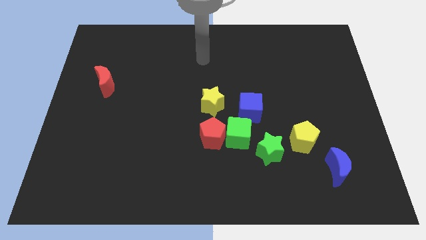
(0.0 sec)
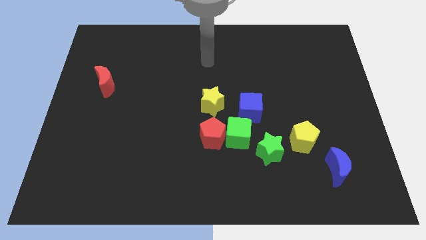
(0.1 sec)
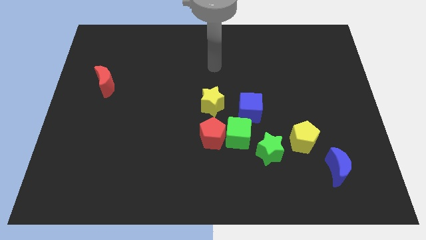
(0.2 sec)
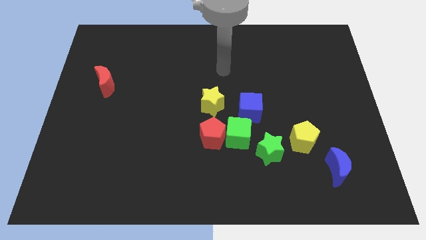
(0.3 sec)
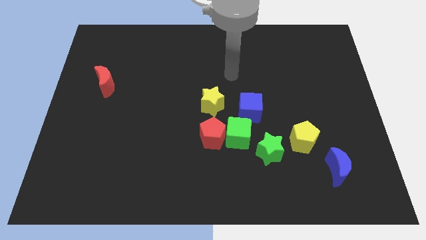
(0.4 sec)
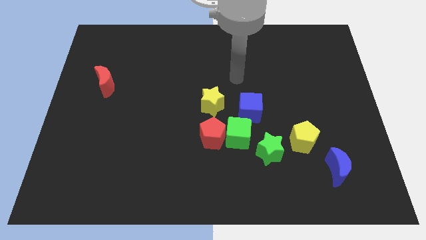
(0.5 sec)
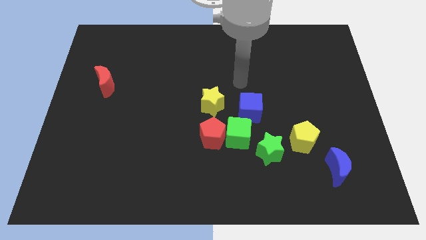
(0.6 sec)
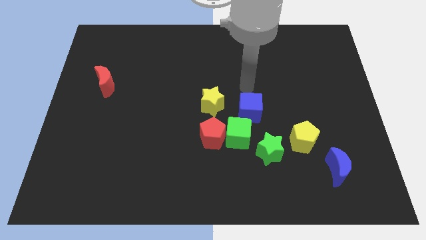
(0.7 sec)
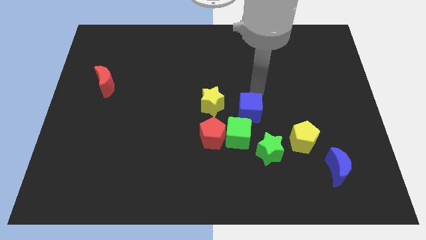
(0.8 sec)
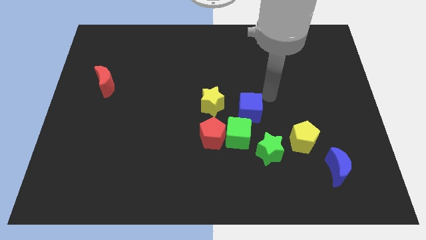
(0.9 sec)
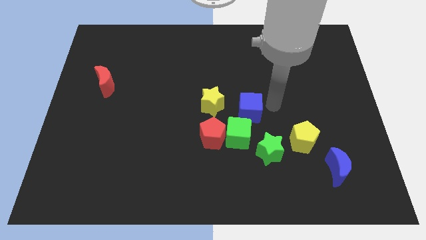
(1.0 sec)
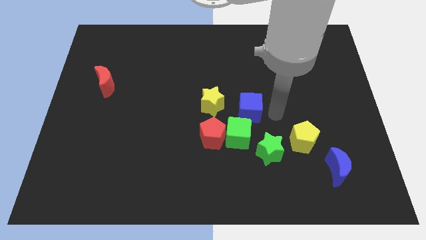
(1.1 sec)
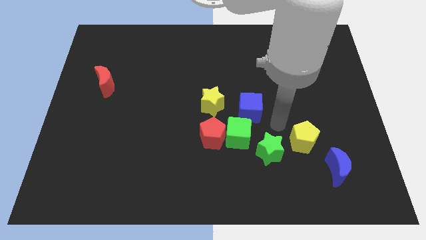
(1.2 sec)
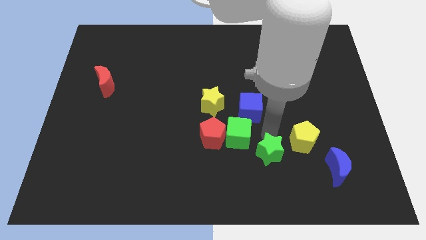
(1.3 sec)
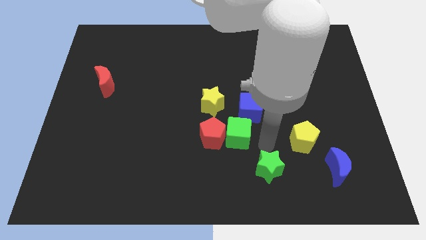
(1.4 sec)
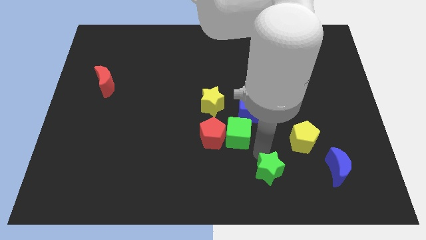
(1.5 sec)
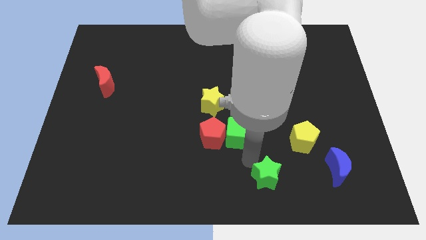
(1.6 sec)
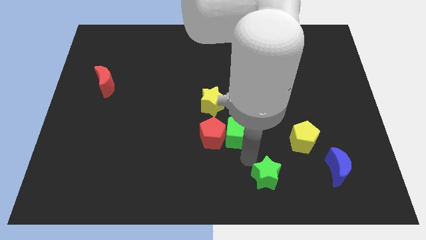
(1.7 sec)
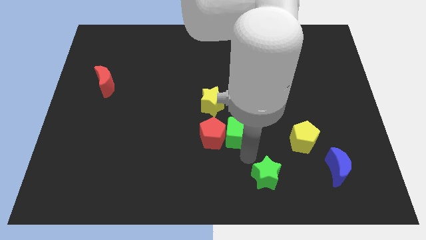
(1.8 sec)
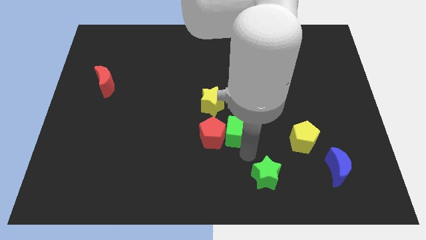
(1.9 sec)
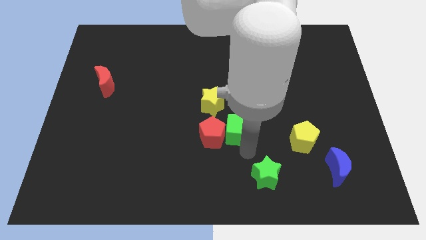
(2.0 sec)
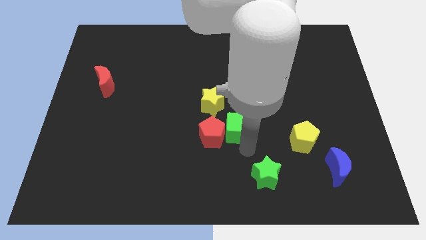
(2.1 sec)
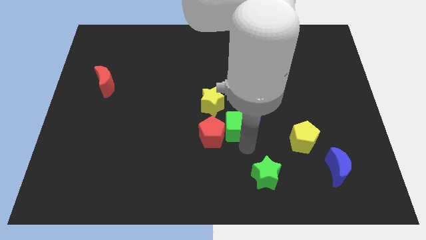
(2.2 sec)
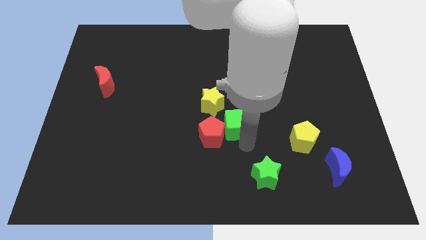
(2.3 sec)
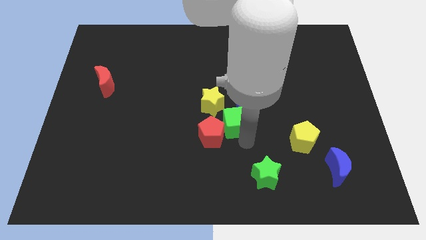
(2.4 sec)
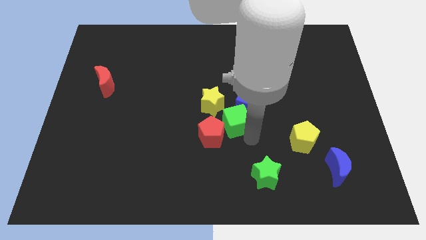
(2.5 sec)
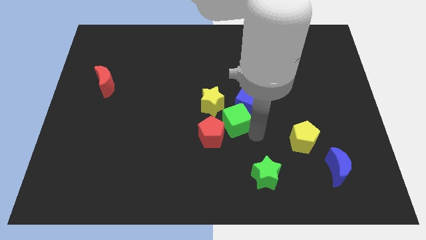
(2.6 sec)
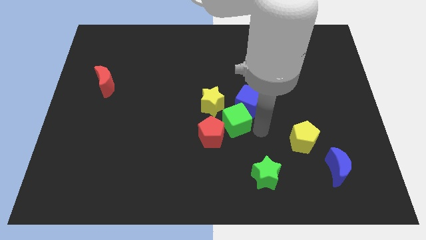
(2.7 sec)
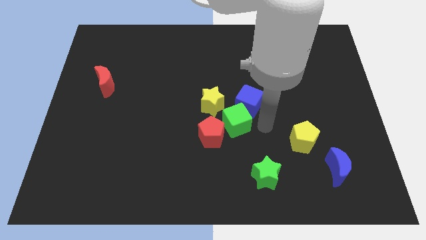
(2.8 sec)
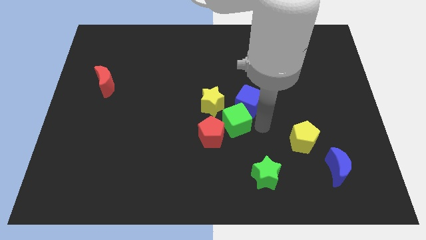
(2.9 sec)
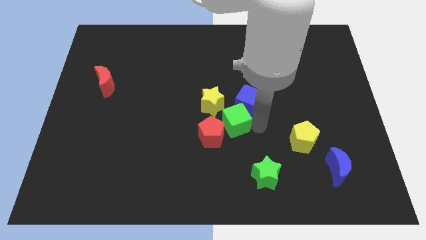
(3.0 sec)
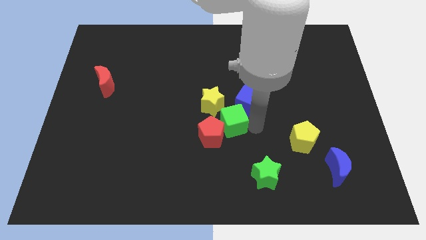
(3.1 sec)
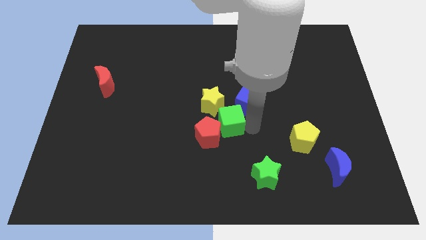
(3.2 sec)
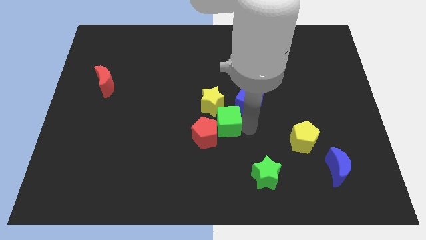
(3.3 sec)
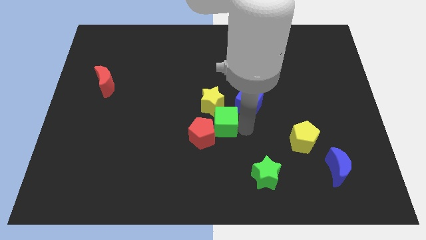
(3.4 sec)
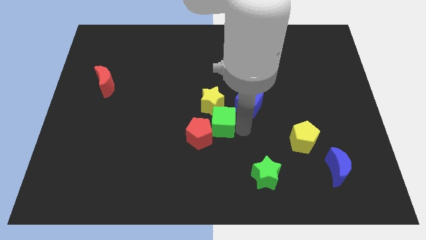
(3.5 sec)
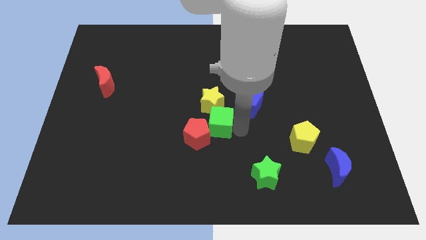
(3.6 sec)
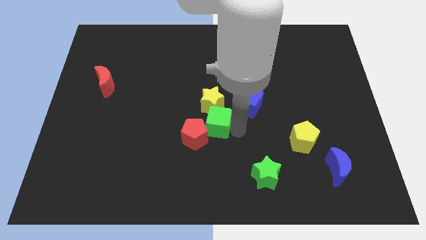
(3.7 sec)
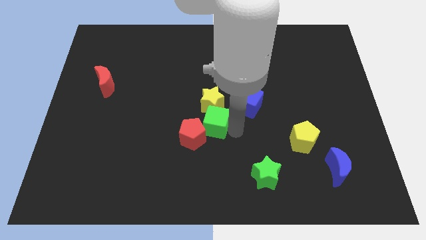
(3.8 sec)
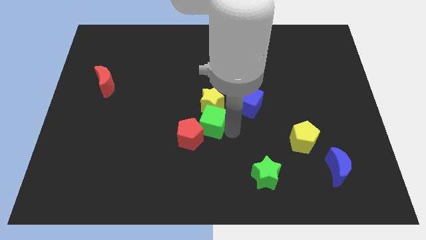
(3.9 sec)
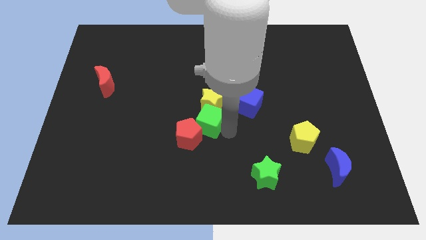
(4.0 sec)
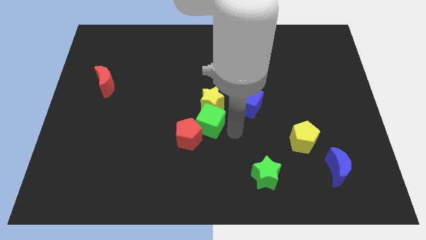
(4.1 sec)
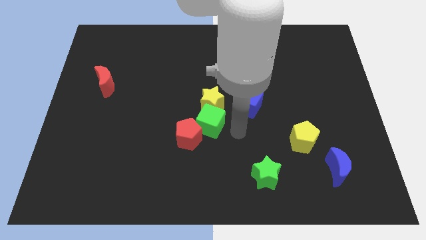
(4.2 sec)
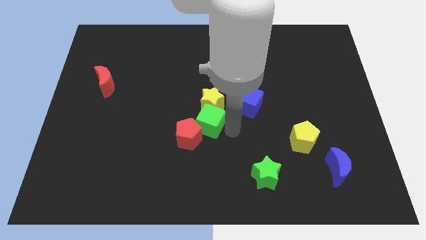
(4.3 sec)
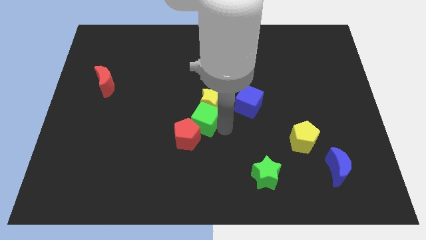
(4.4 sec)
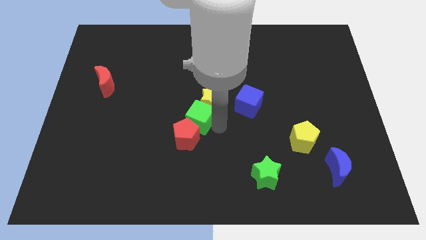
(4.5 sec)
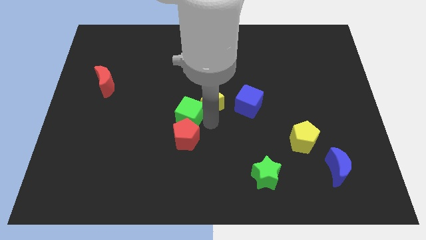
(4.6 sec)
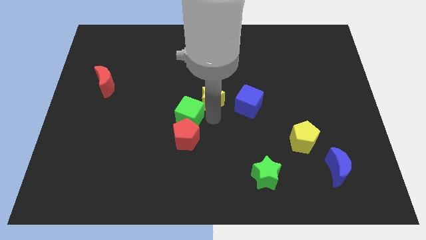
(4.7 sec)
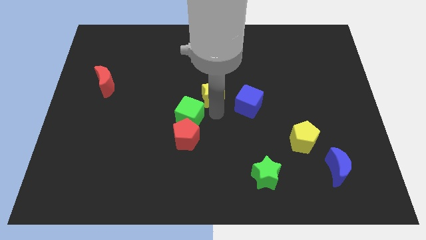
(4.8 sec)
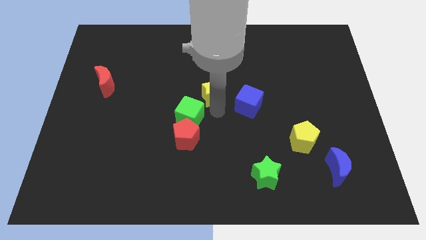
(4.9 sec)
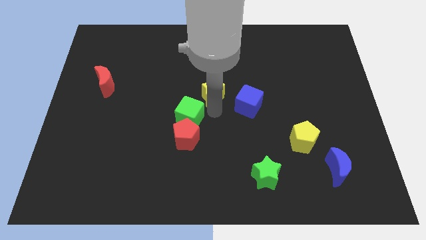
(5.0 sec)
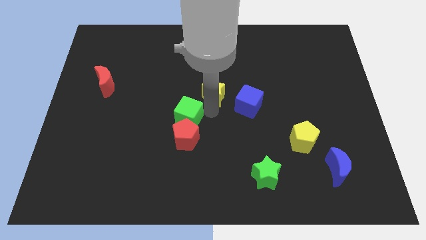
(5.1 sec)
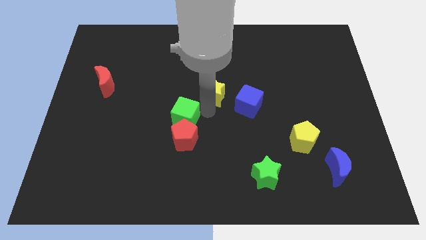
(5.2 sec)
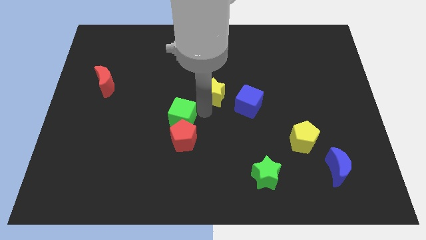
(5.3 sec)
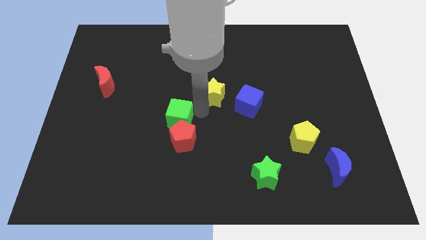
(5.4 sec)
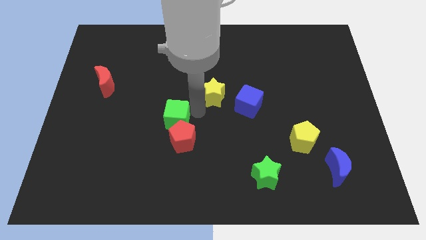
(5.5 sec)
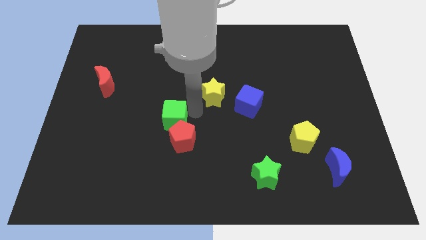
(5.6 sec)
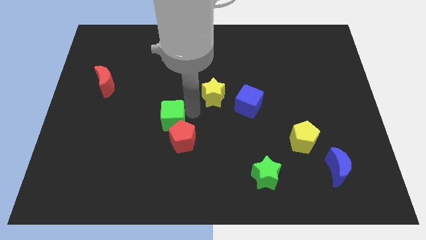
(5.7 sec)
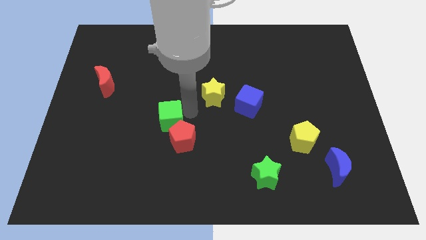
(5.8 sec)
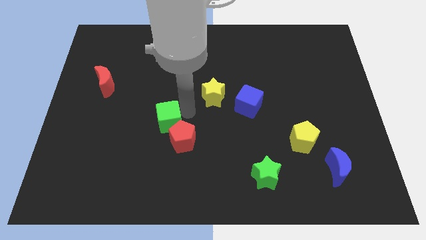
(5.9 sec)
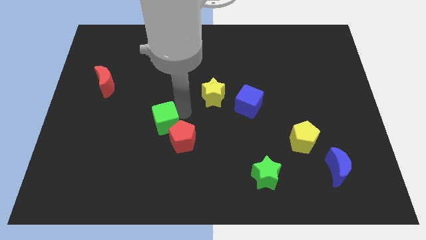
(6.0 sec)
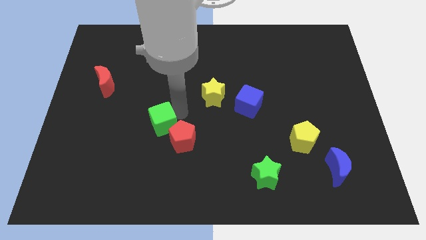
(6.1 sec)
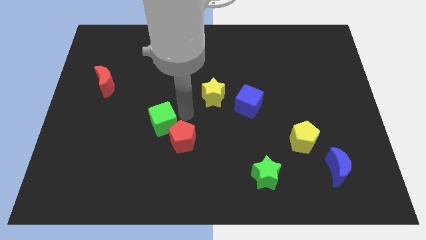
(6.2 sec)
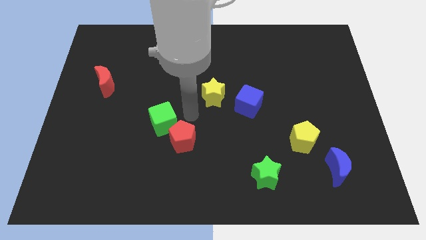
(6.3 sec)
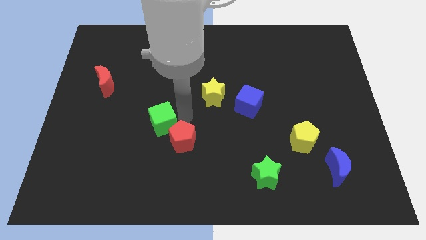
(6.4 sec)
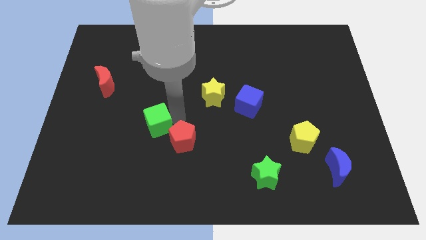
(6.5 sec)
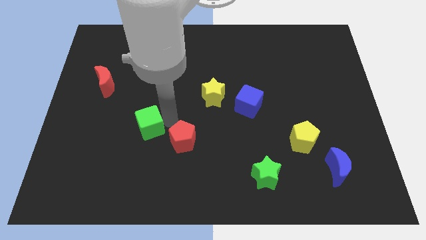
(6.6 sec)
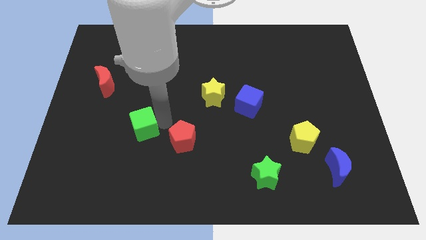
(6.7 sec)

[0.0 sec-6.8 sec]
move the green cube left

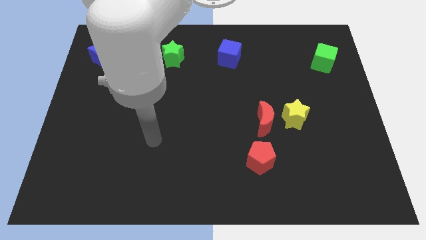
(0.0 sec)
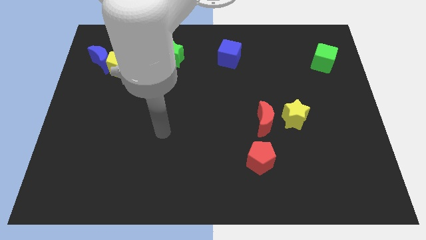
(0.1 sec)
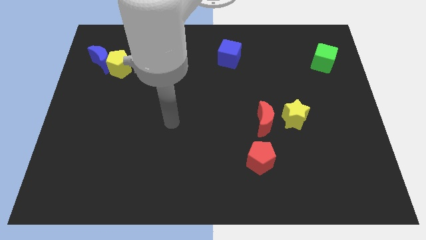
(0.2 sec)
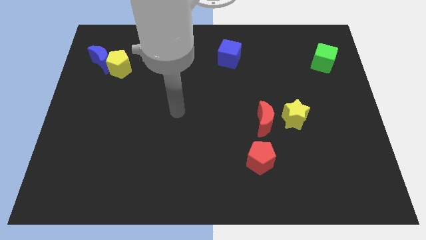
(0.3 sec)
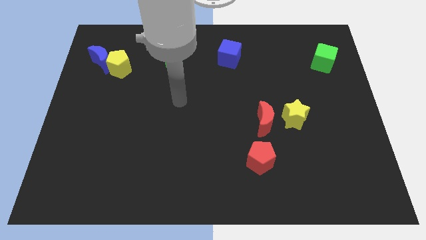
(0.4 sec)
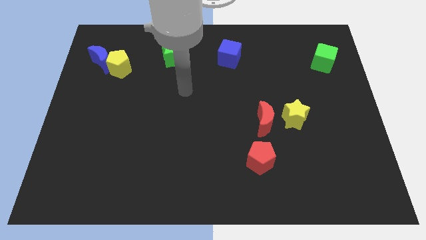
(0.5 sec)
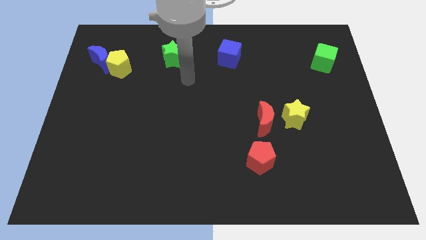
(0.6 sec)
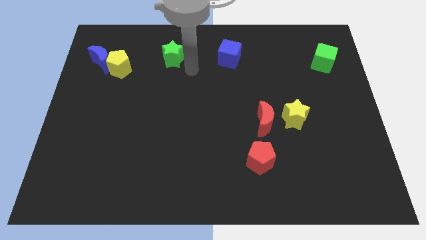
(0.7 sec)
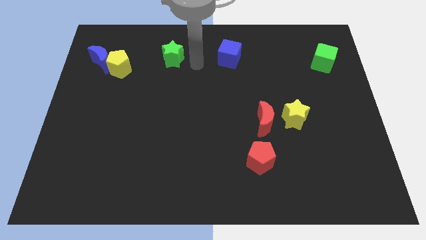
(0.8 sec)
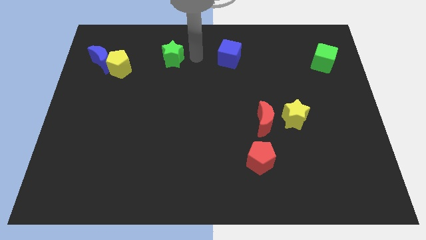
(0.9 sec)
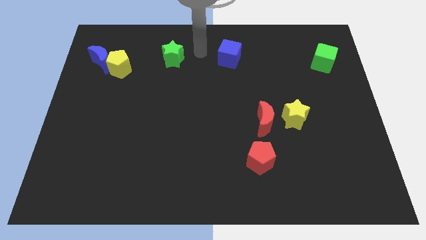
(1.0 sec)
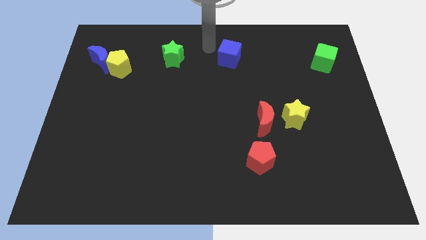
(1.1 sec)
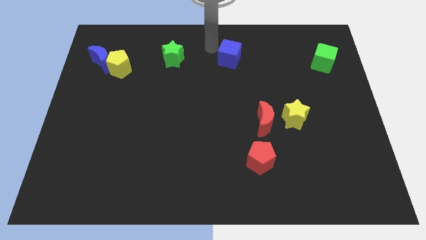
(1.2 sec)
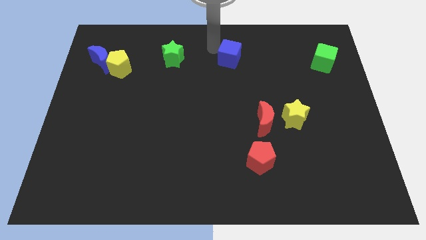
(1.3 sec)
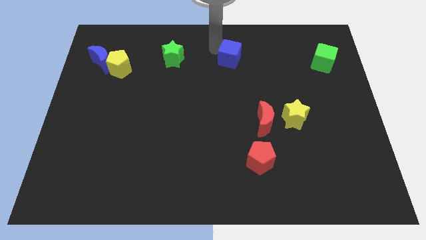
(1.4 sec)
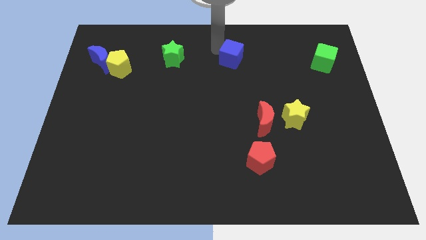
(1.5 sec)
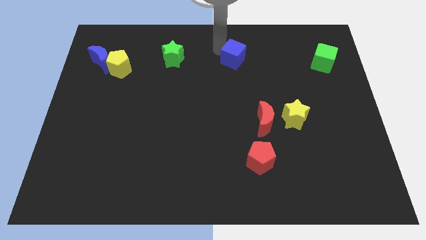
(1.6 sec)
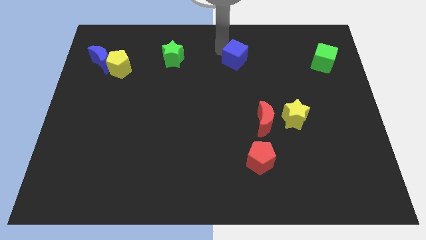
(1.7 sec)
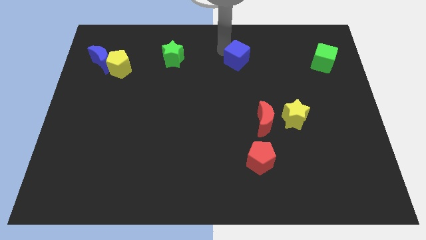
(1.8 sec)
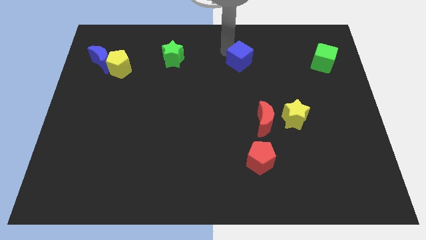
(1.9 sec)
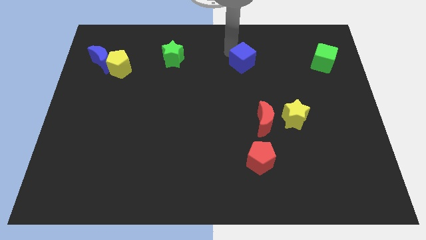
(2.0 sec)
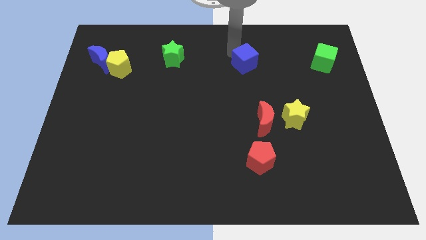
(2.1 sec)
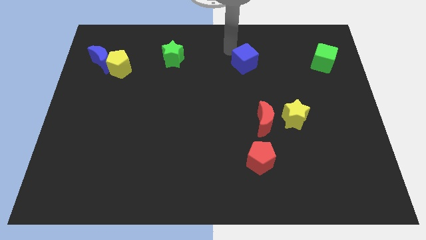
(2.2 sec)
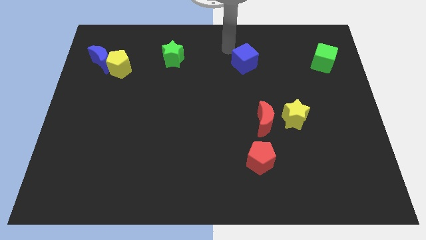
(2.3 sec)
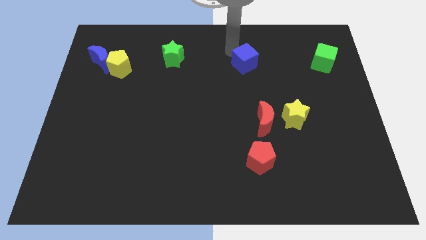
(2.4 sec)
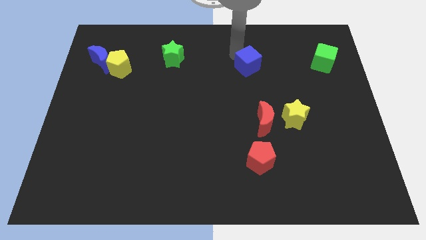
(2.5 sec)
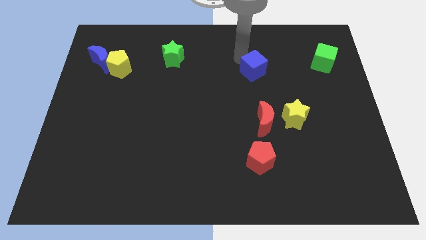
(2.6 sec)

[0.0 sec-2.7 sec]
move the blue cube a bit downwards and to the right diagonally
